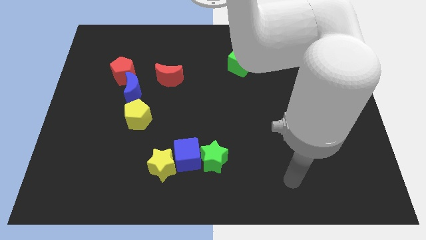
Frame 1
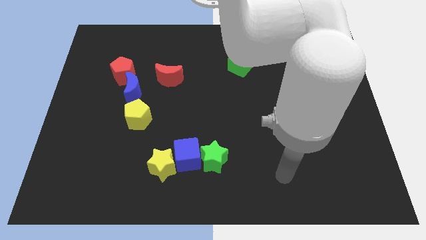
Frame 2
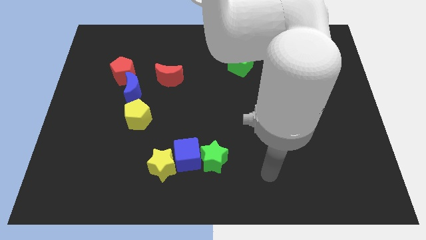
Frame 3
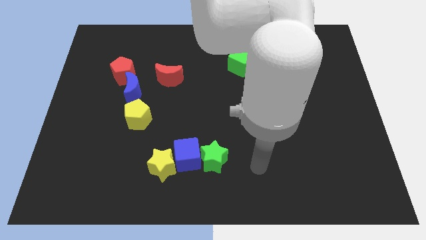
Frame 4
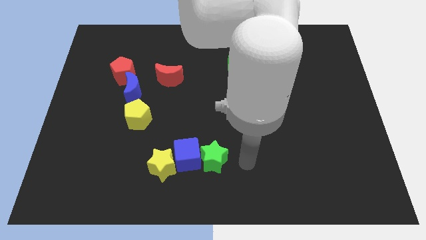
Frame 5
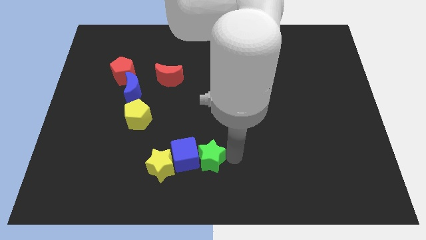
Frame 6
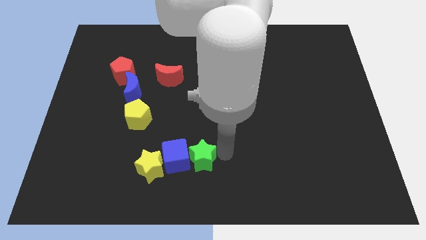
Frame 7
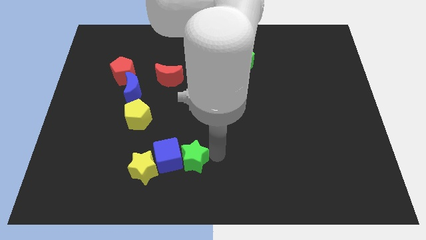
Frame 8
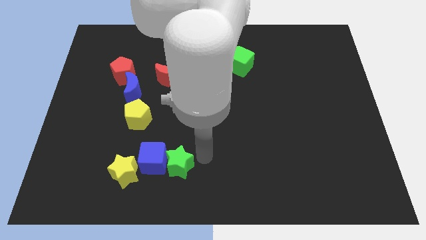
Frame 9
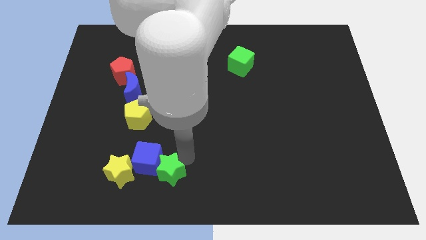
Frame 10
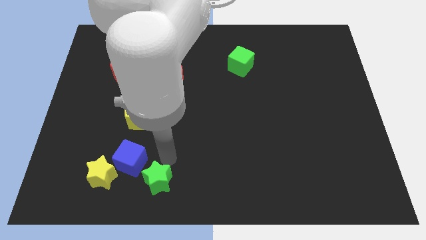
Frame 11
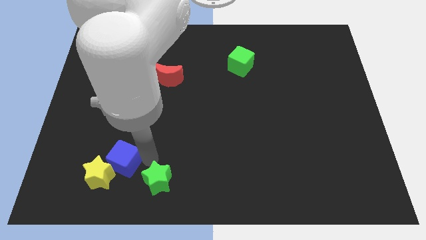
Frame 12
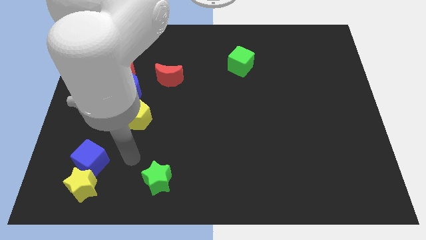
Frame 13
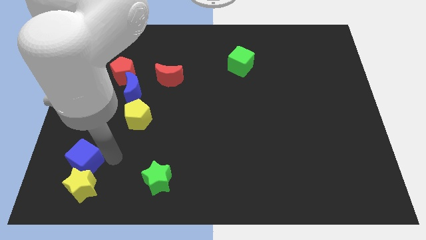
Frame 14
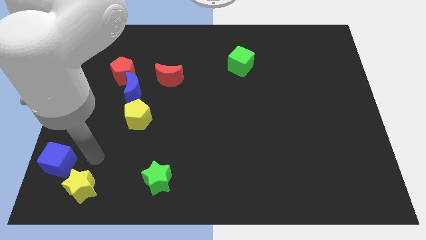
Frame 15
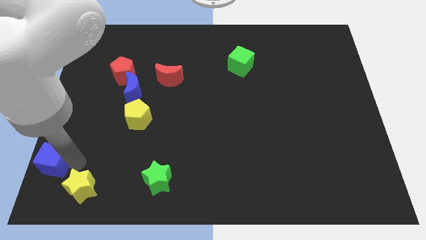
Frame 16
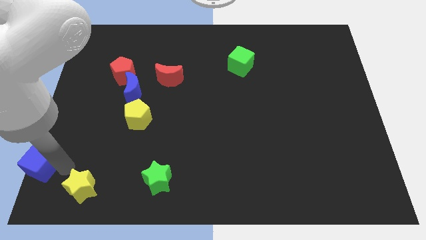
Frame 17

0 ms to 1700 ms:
separate the yellow star from the blue cube

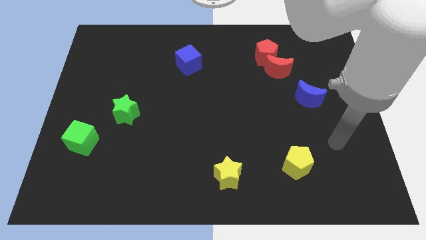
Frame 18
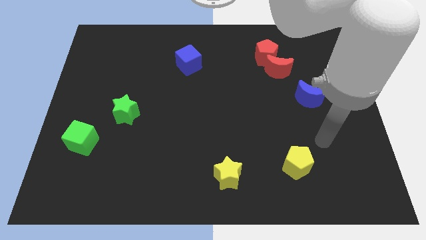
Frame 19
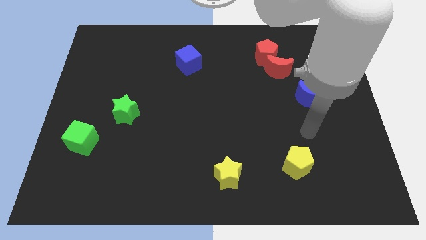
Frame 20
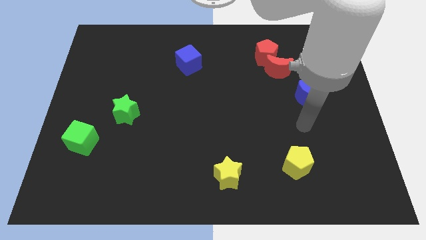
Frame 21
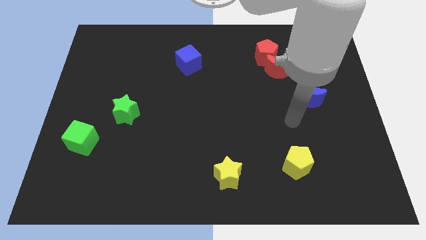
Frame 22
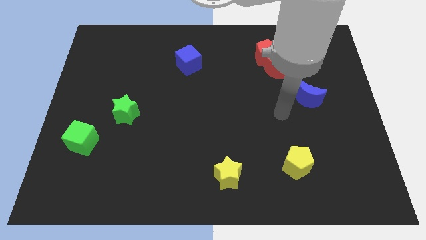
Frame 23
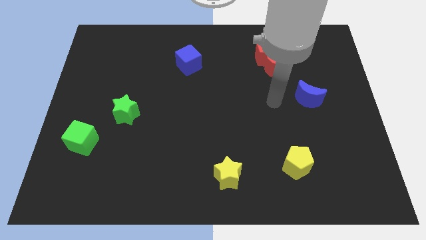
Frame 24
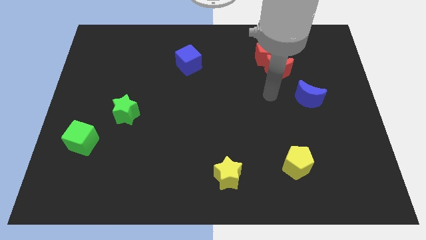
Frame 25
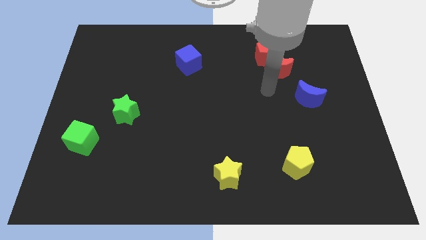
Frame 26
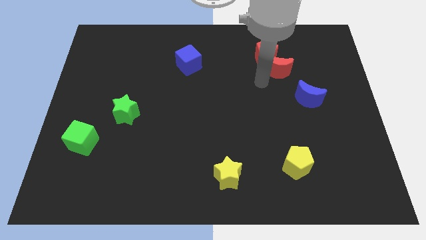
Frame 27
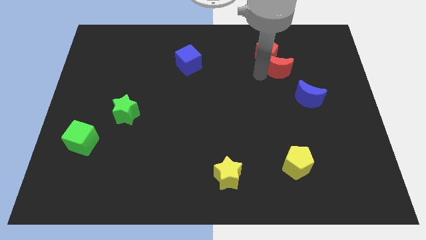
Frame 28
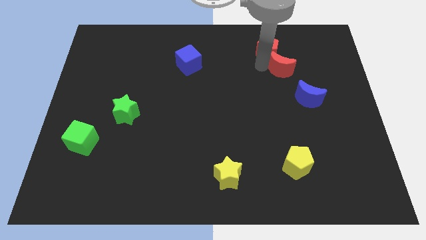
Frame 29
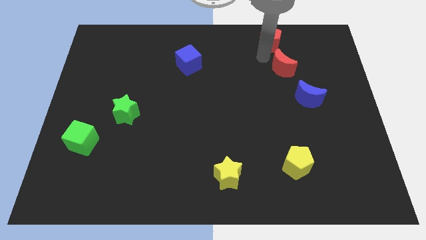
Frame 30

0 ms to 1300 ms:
separate the red moon from the red pentagon

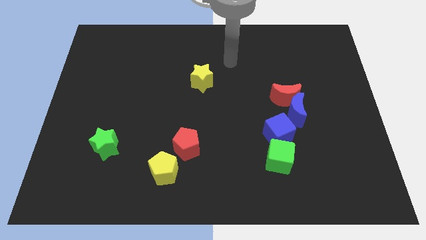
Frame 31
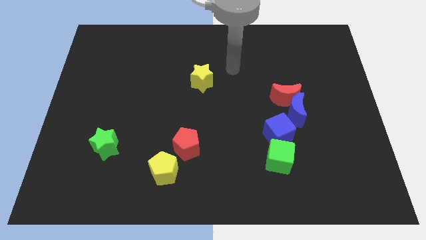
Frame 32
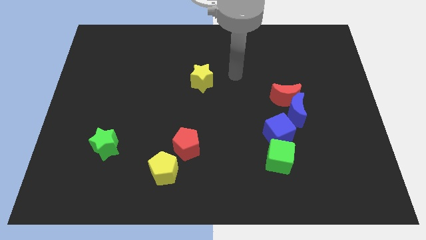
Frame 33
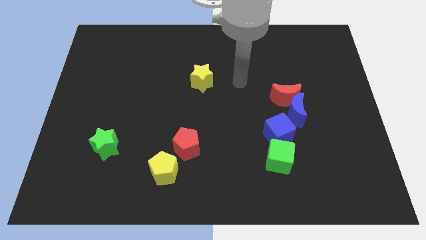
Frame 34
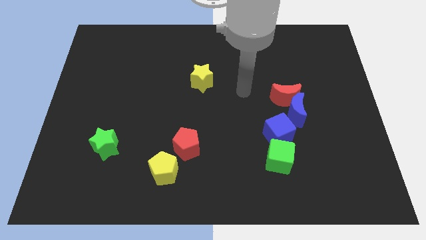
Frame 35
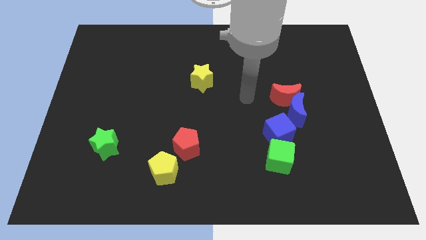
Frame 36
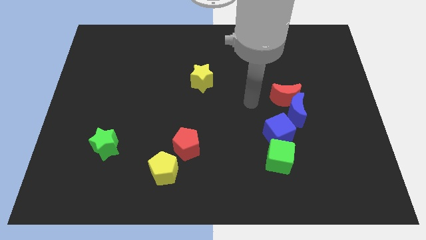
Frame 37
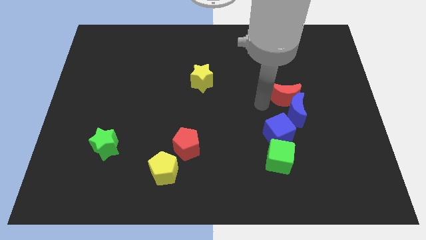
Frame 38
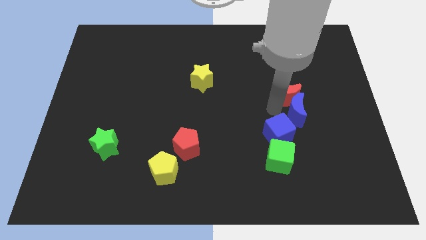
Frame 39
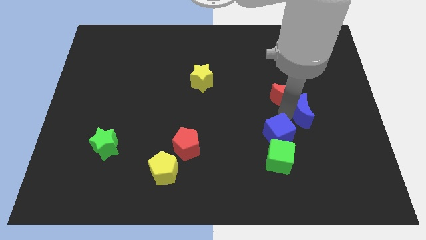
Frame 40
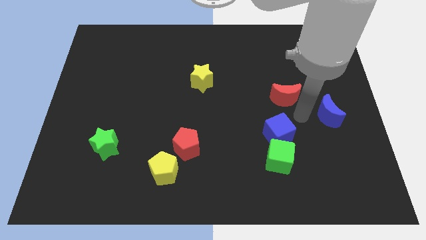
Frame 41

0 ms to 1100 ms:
pull the red moon apart from the blue moon

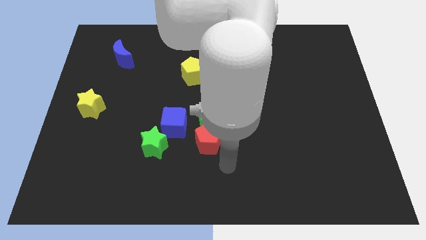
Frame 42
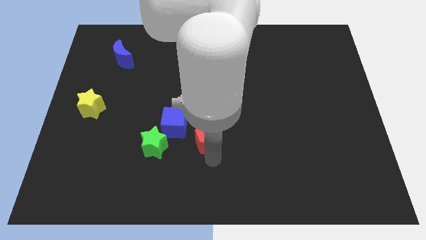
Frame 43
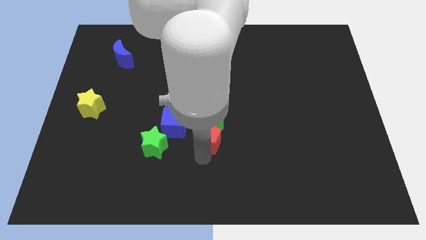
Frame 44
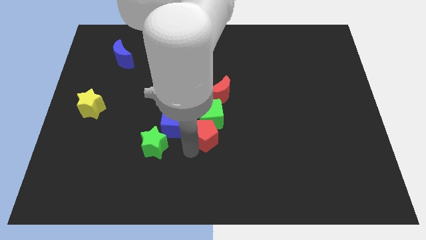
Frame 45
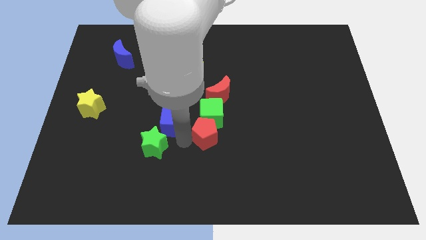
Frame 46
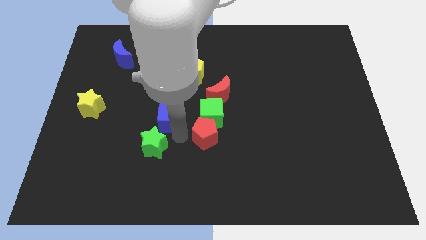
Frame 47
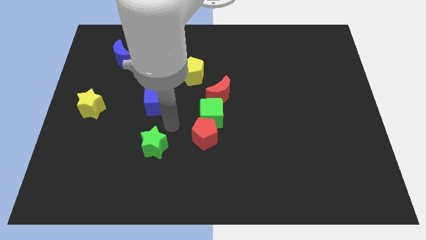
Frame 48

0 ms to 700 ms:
move the green star away from the blue cube

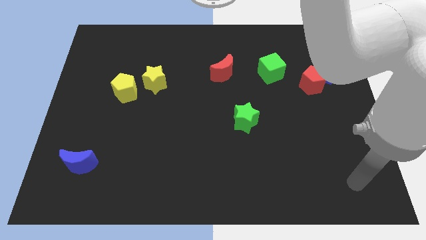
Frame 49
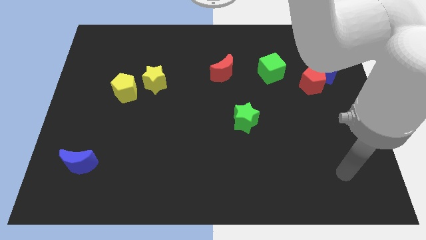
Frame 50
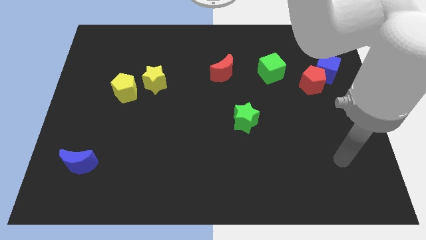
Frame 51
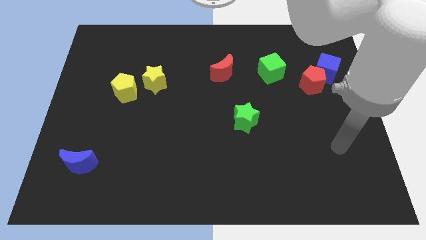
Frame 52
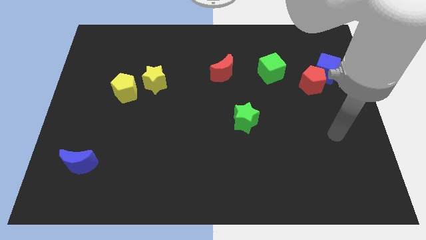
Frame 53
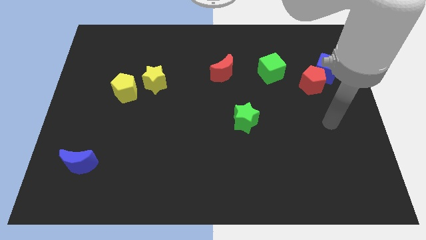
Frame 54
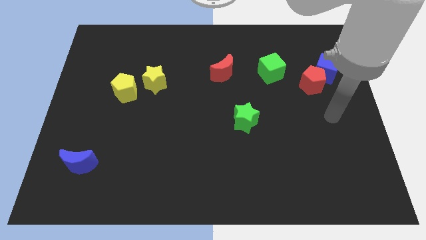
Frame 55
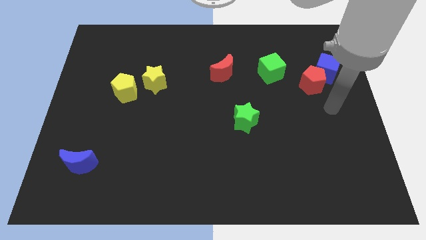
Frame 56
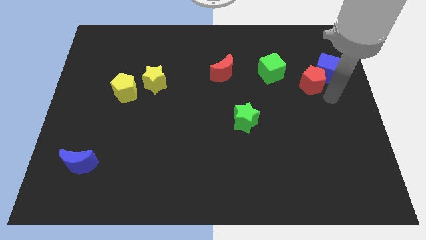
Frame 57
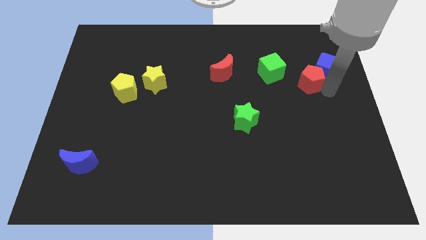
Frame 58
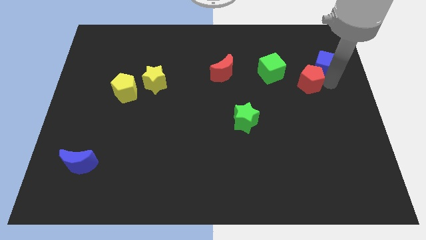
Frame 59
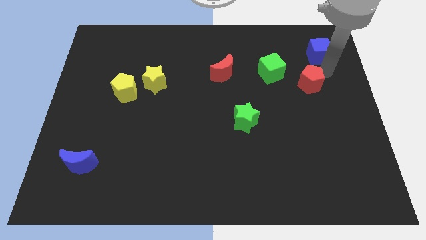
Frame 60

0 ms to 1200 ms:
move the red pentagon away from the blue cube

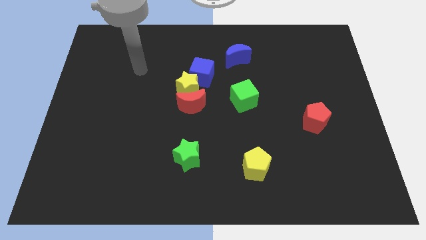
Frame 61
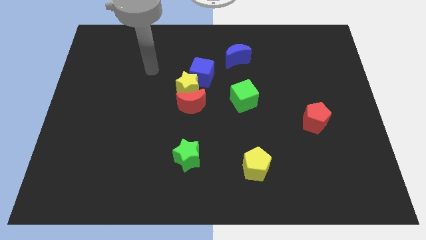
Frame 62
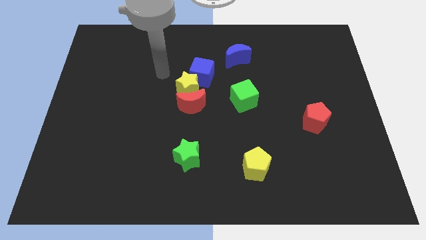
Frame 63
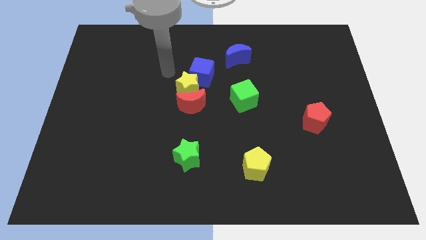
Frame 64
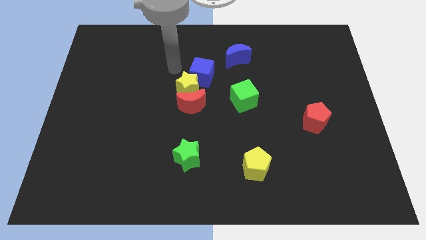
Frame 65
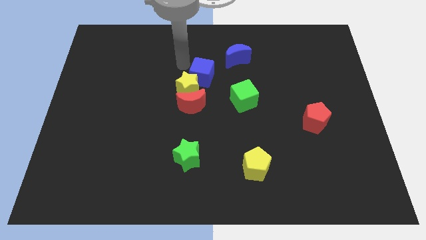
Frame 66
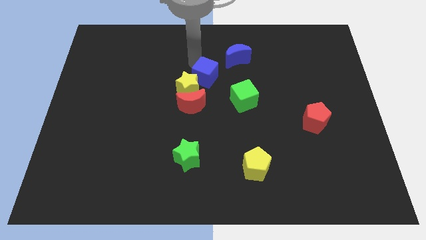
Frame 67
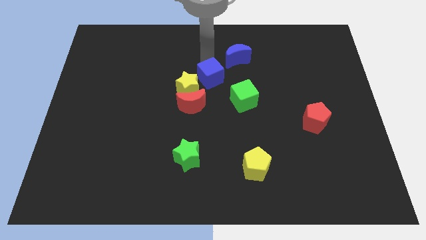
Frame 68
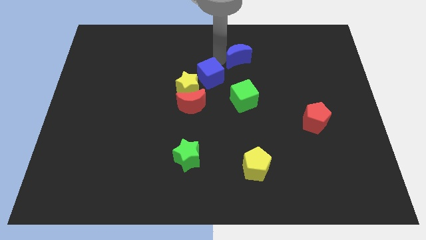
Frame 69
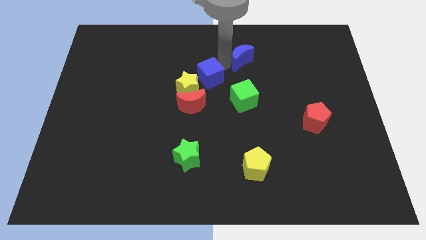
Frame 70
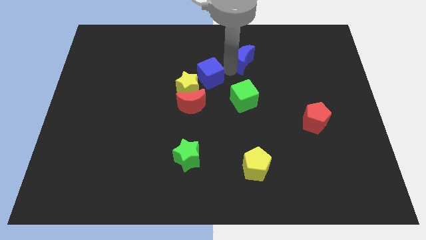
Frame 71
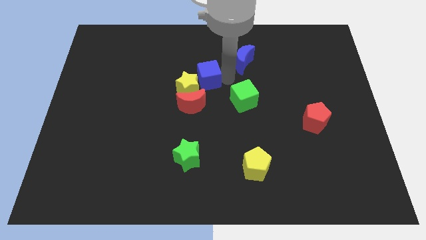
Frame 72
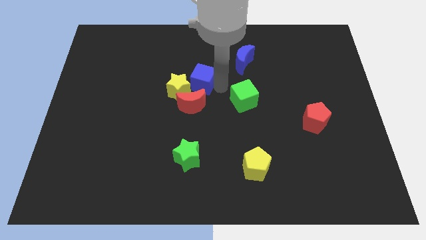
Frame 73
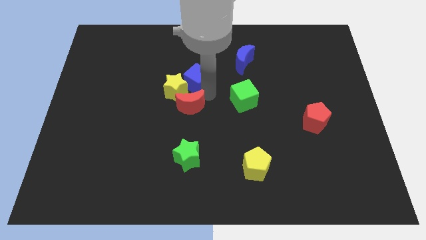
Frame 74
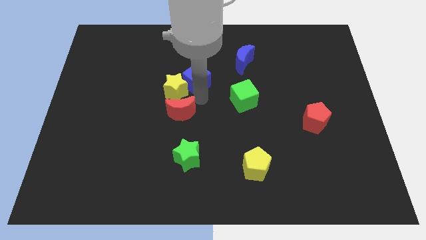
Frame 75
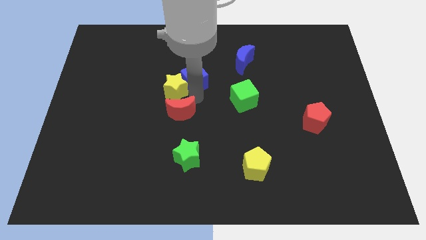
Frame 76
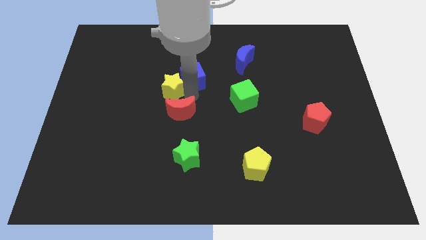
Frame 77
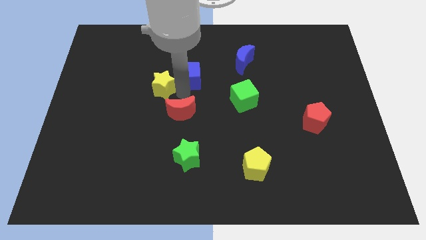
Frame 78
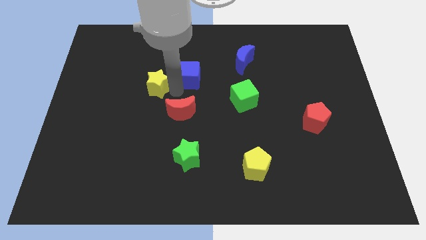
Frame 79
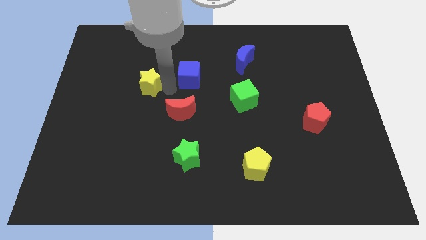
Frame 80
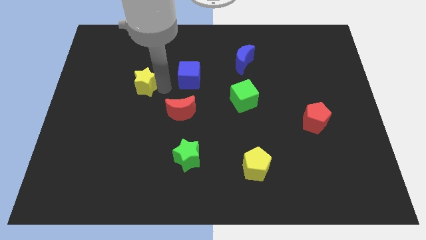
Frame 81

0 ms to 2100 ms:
separate the yellow star from the red moon and blue cube

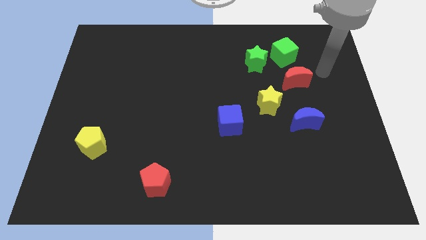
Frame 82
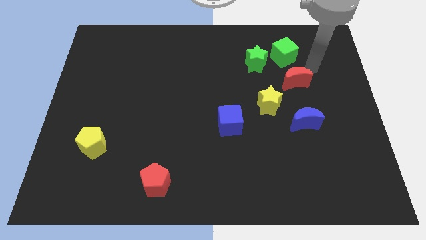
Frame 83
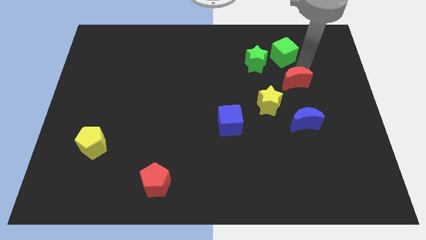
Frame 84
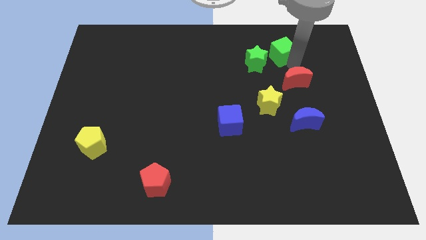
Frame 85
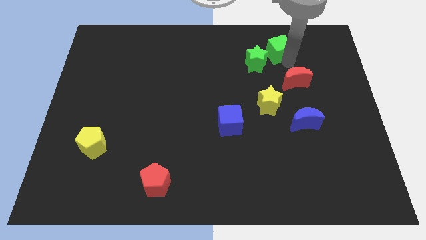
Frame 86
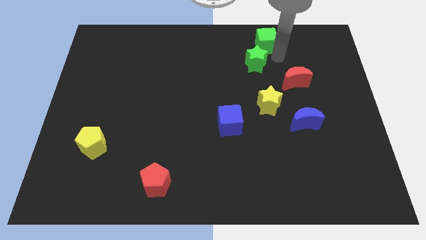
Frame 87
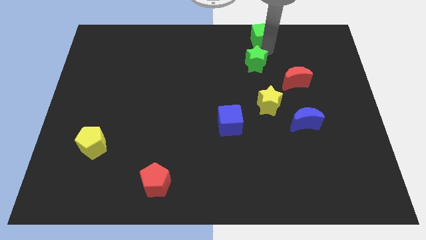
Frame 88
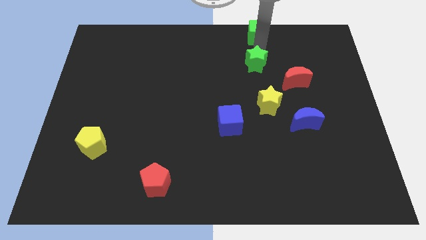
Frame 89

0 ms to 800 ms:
move the green star away from the green cube

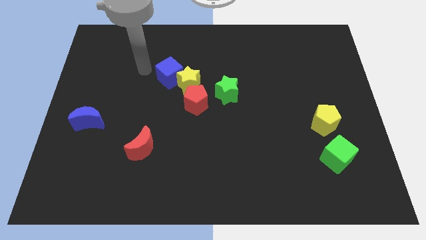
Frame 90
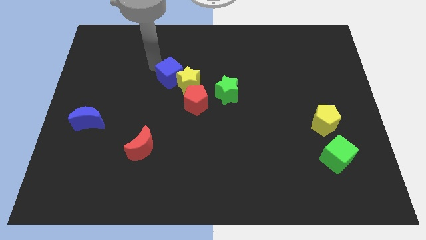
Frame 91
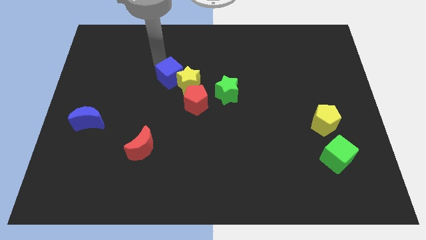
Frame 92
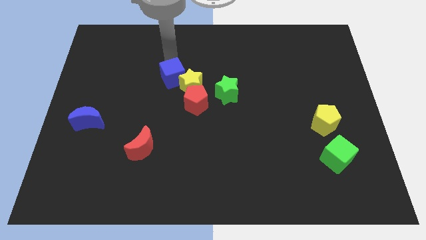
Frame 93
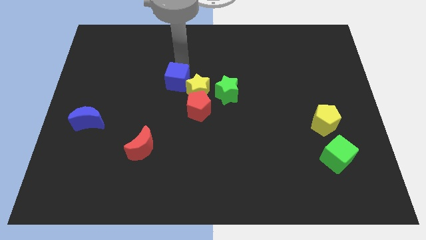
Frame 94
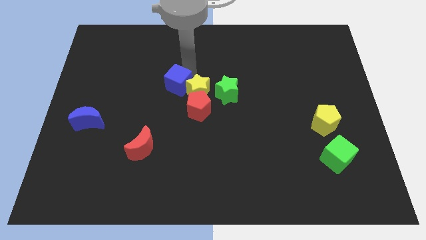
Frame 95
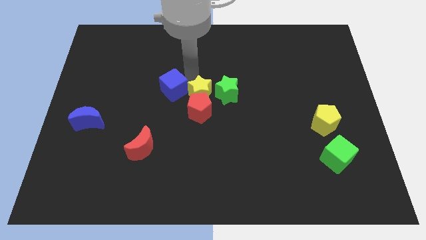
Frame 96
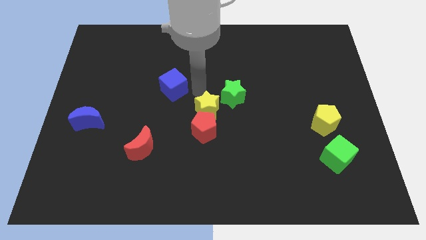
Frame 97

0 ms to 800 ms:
move the blue cube away from the yellow star
